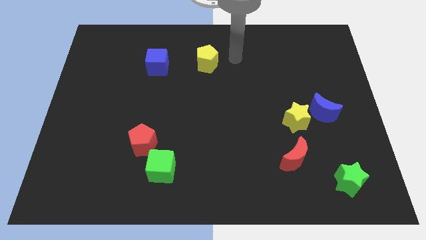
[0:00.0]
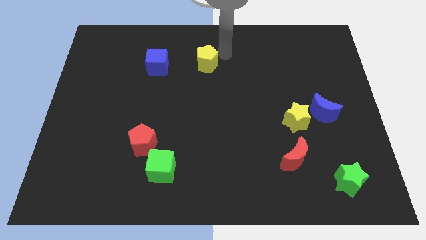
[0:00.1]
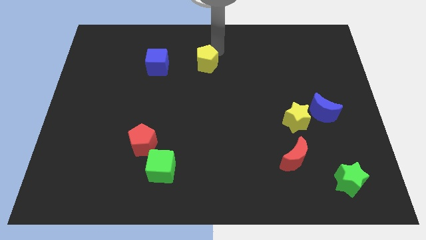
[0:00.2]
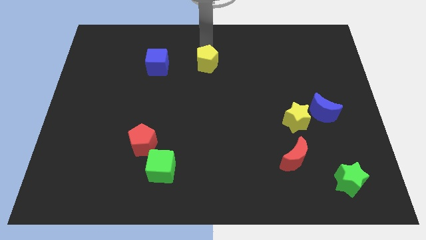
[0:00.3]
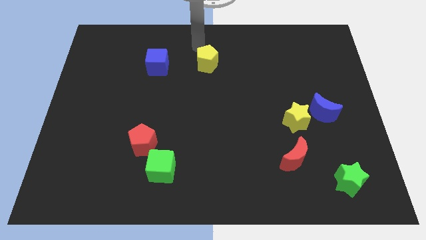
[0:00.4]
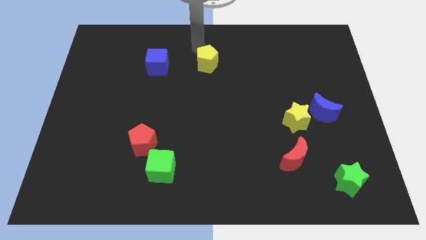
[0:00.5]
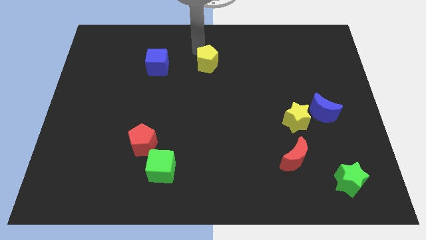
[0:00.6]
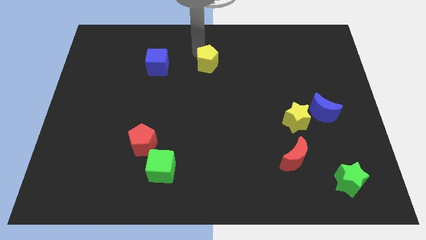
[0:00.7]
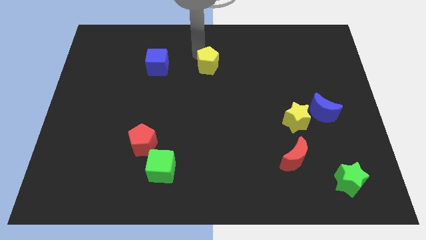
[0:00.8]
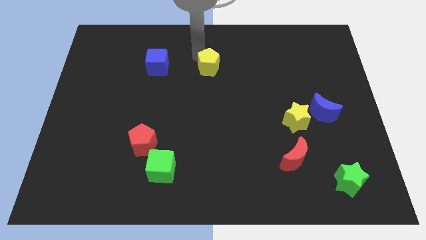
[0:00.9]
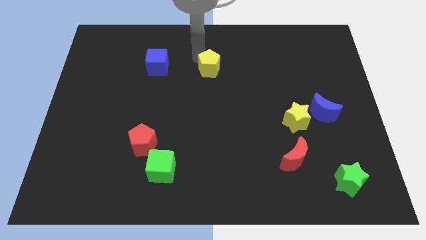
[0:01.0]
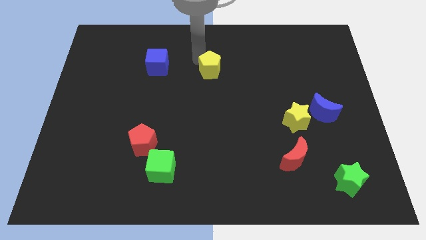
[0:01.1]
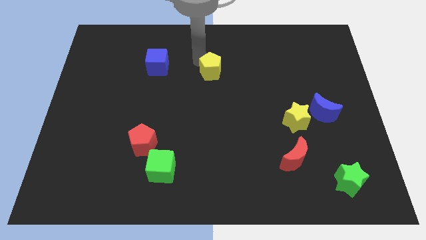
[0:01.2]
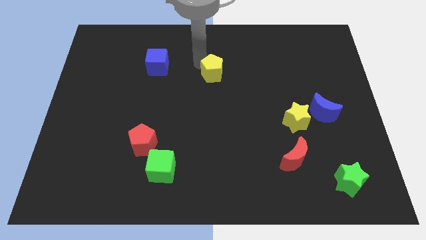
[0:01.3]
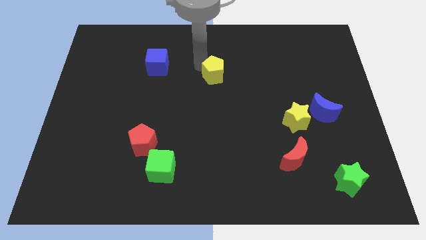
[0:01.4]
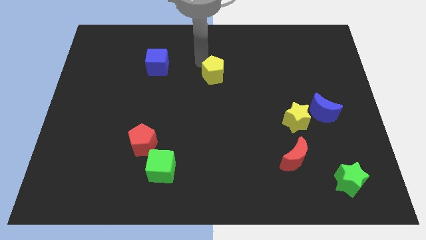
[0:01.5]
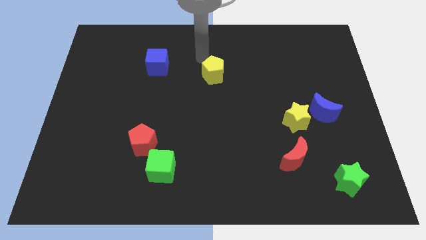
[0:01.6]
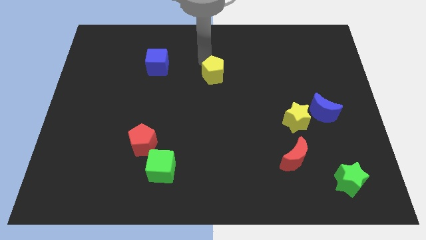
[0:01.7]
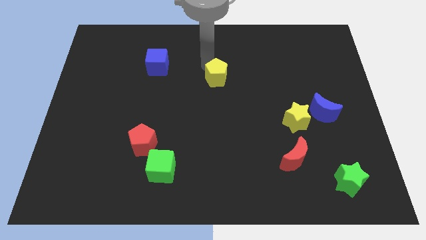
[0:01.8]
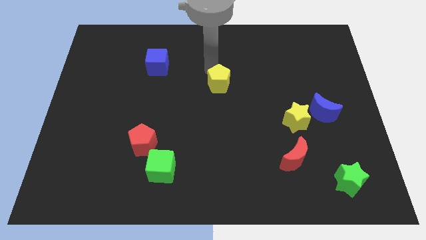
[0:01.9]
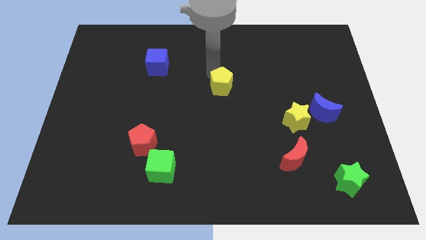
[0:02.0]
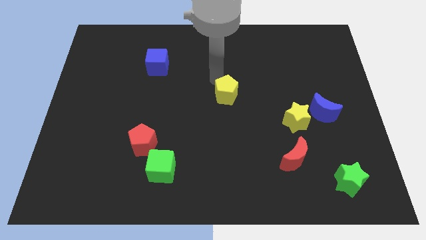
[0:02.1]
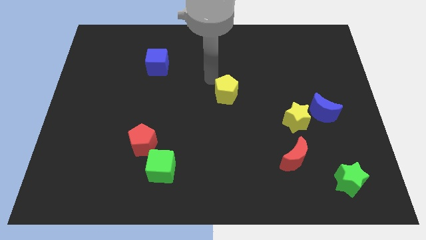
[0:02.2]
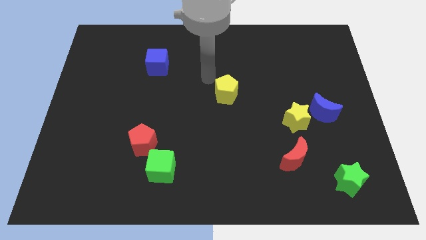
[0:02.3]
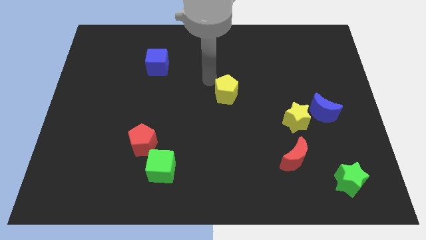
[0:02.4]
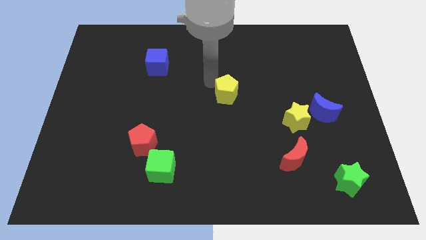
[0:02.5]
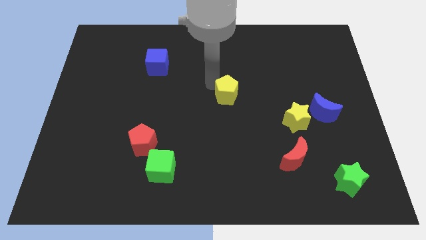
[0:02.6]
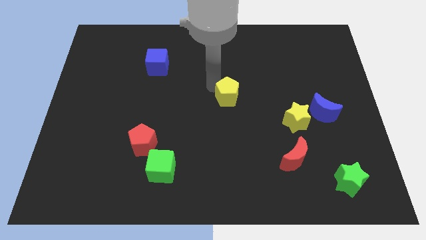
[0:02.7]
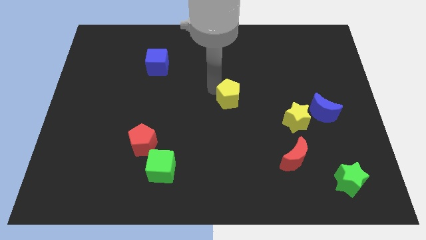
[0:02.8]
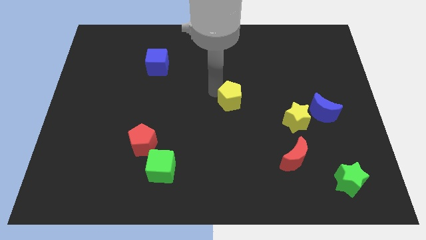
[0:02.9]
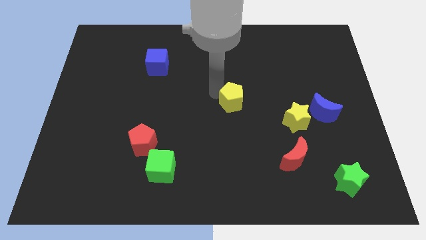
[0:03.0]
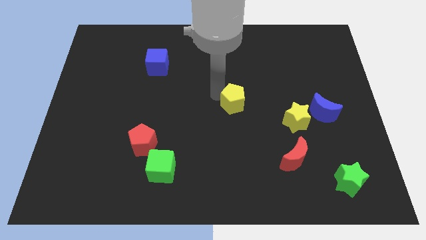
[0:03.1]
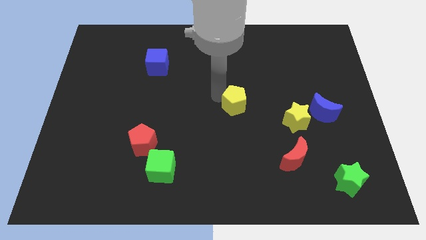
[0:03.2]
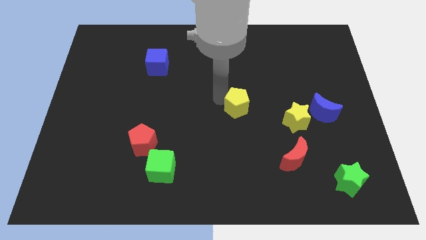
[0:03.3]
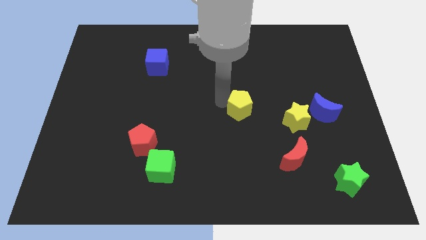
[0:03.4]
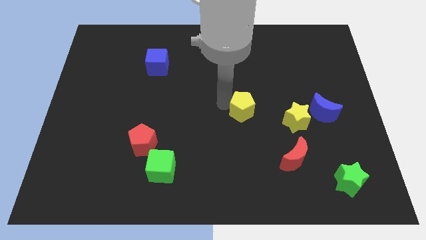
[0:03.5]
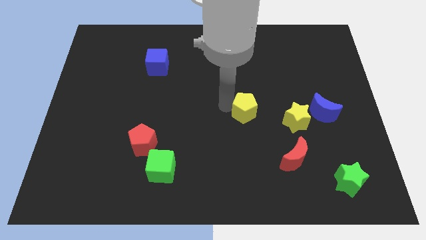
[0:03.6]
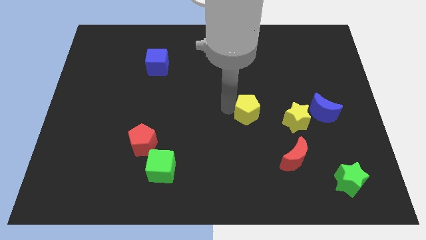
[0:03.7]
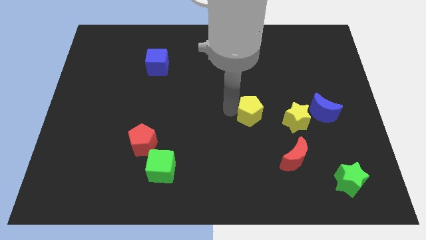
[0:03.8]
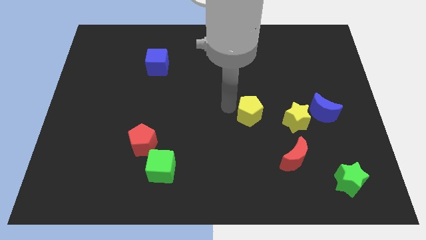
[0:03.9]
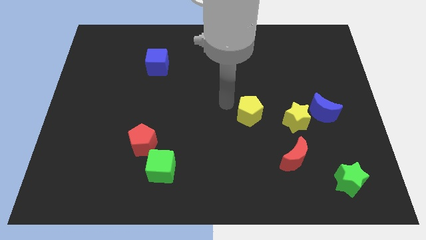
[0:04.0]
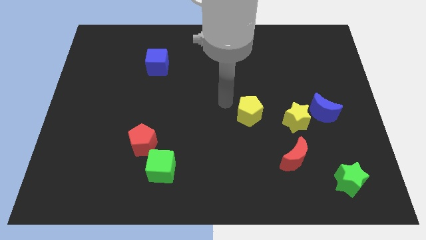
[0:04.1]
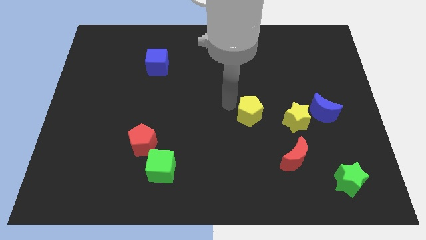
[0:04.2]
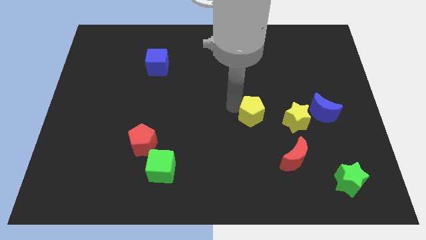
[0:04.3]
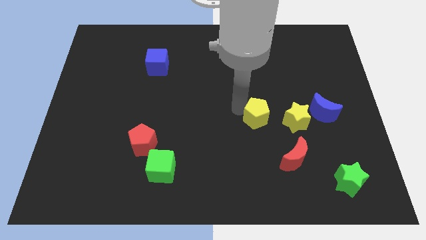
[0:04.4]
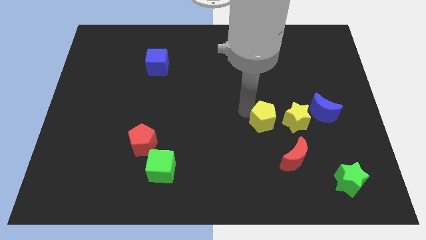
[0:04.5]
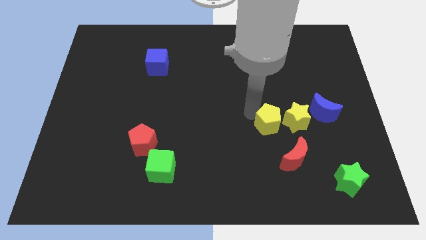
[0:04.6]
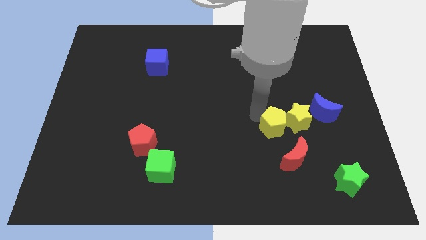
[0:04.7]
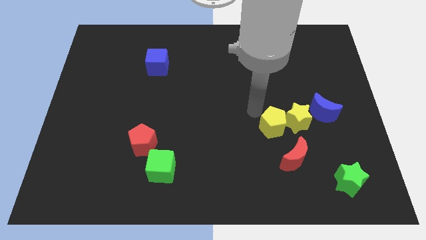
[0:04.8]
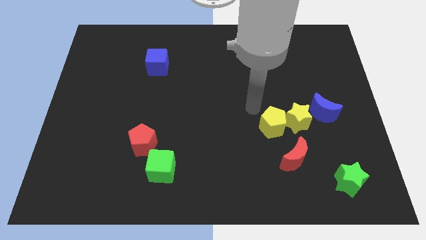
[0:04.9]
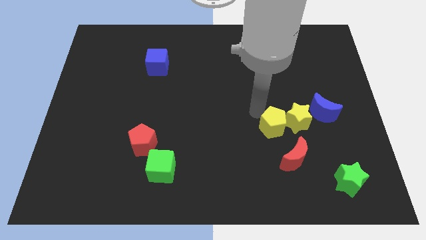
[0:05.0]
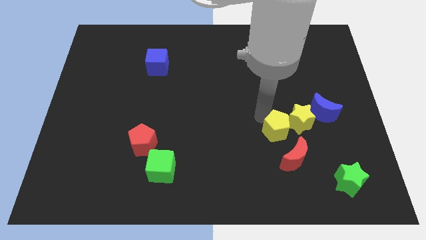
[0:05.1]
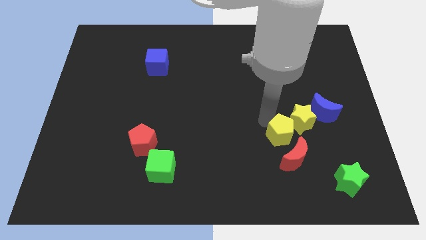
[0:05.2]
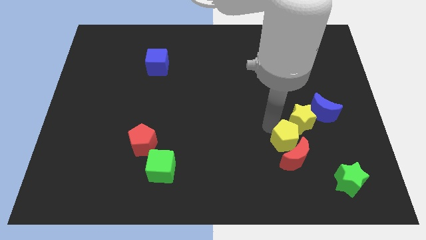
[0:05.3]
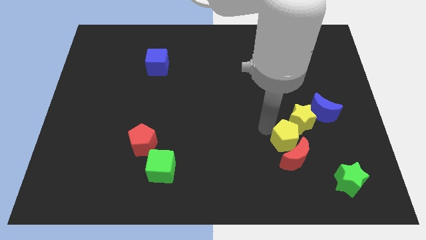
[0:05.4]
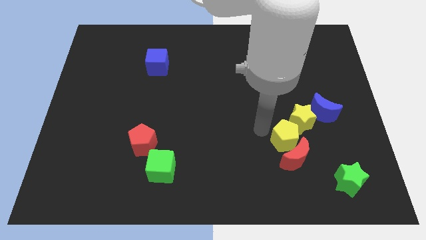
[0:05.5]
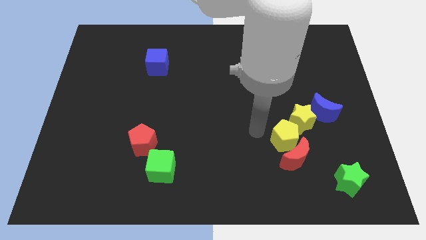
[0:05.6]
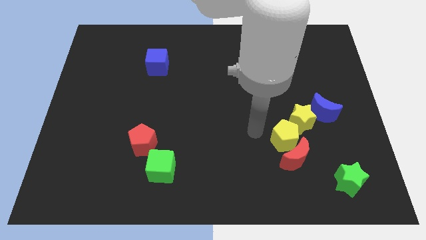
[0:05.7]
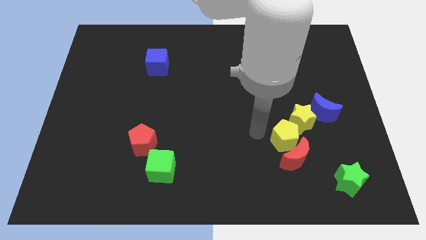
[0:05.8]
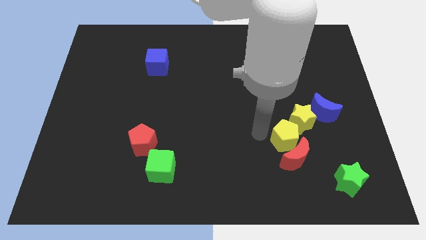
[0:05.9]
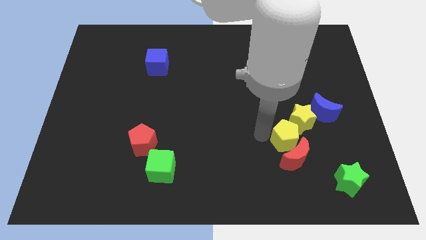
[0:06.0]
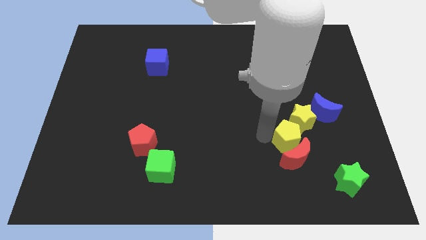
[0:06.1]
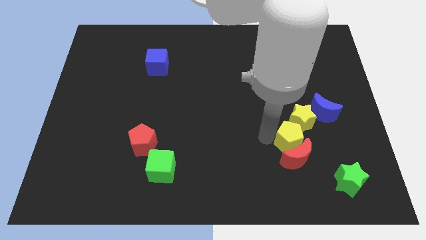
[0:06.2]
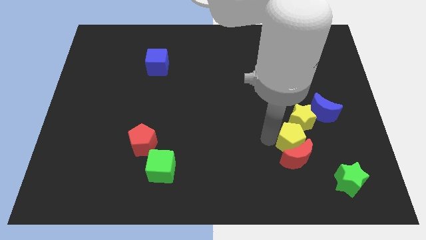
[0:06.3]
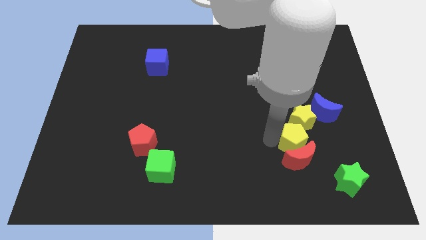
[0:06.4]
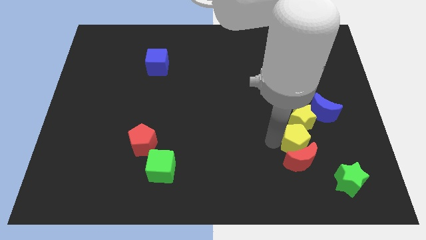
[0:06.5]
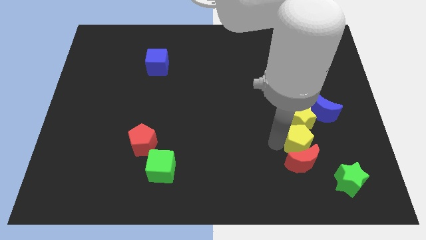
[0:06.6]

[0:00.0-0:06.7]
push the yellow pentagon to the top left side of the green star
